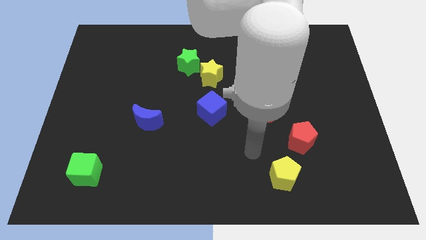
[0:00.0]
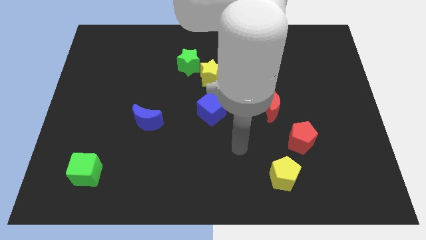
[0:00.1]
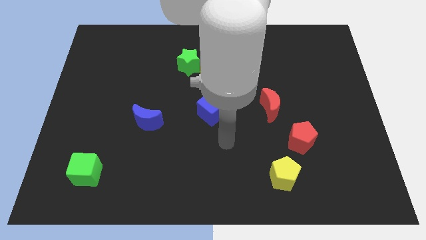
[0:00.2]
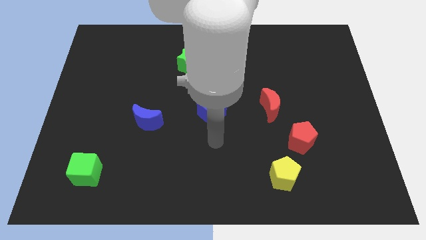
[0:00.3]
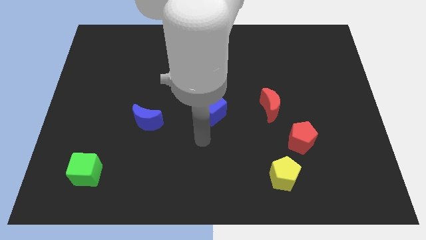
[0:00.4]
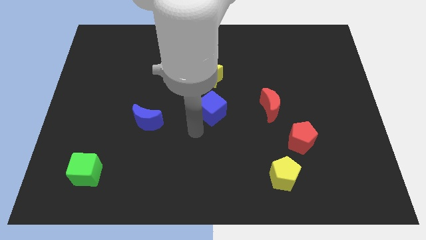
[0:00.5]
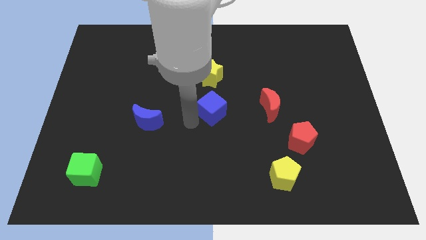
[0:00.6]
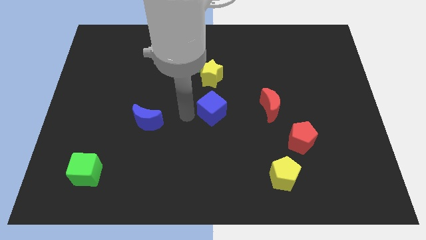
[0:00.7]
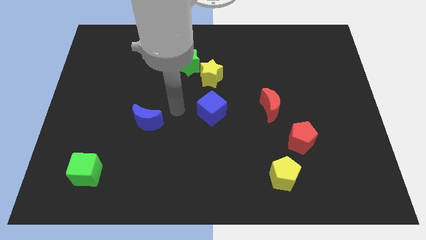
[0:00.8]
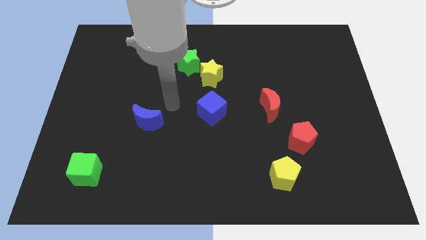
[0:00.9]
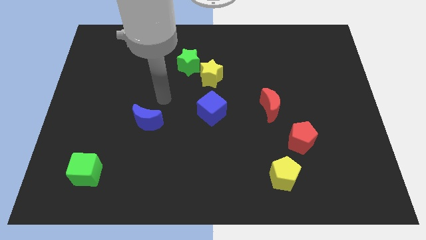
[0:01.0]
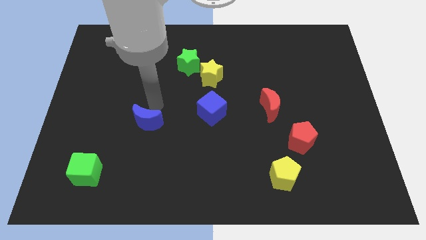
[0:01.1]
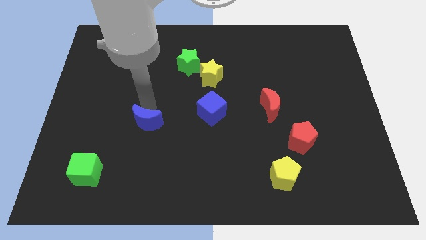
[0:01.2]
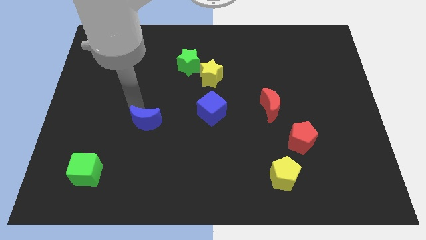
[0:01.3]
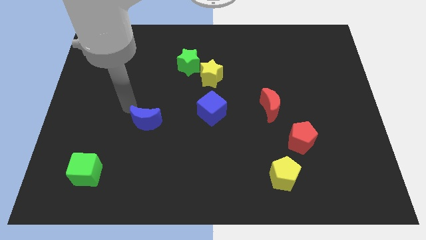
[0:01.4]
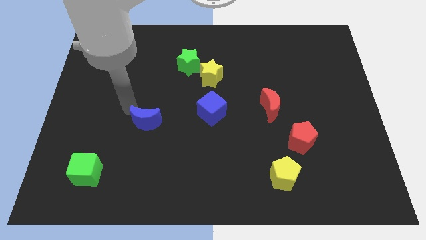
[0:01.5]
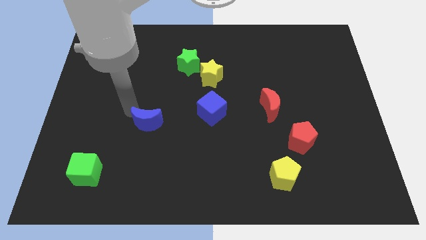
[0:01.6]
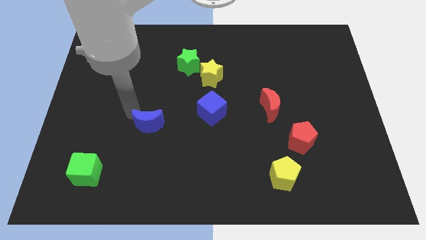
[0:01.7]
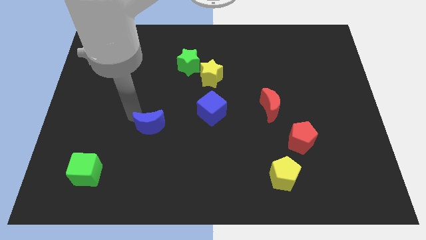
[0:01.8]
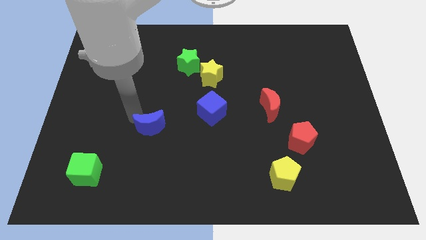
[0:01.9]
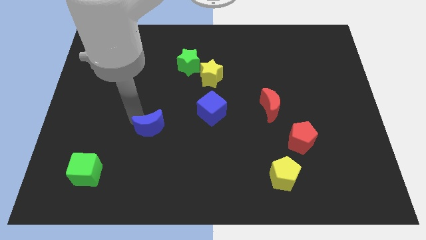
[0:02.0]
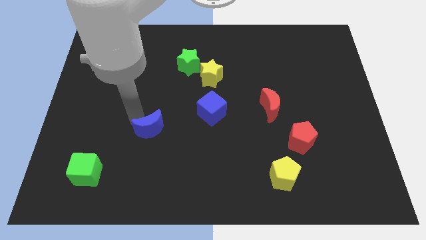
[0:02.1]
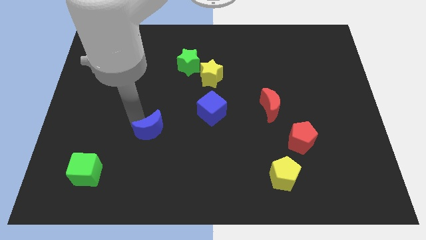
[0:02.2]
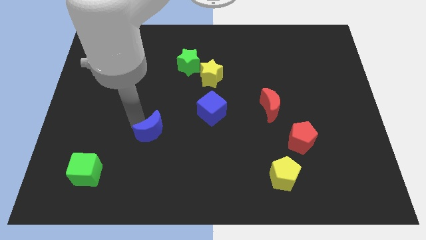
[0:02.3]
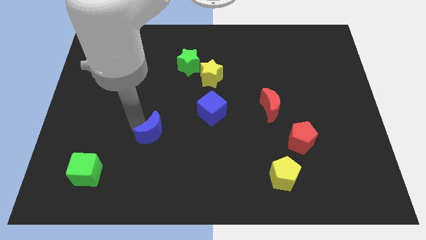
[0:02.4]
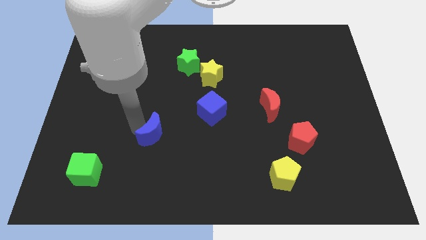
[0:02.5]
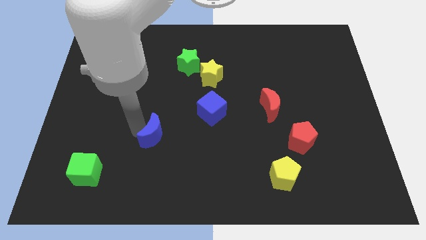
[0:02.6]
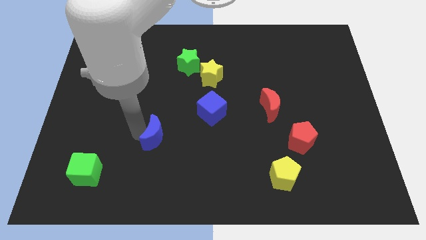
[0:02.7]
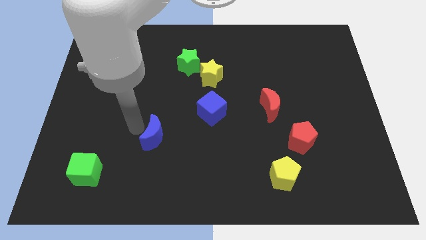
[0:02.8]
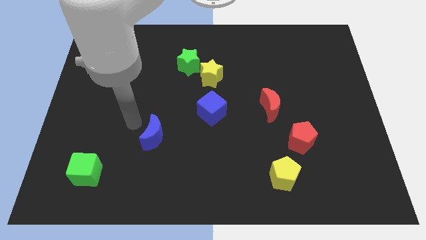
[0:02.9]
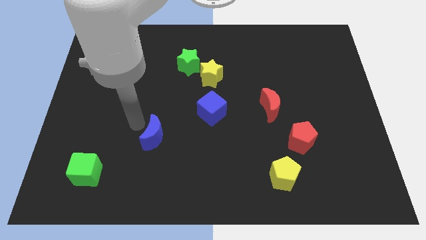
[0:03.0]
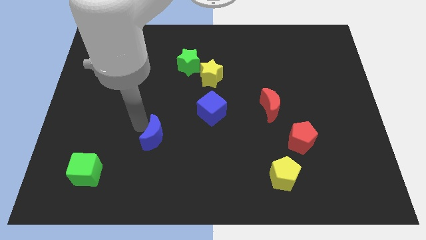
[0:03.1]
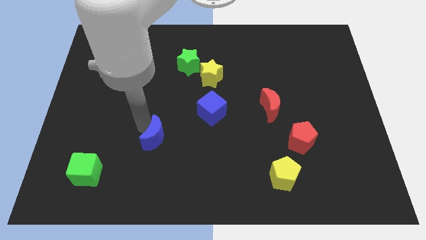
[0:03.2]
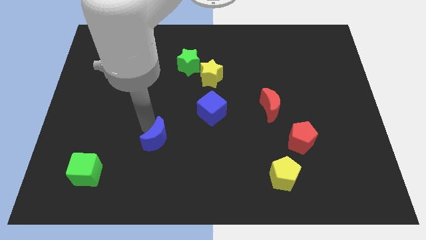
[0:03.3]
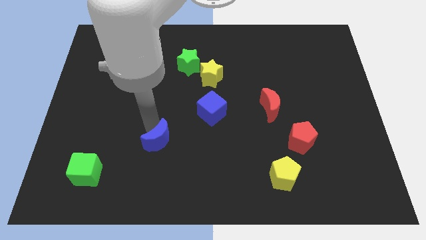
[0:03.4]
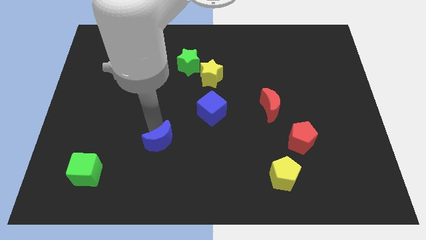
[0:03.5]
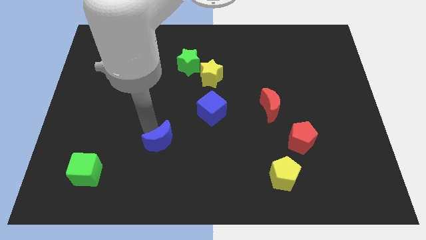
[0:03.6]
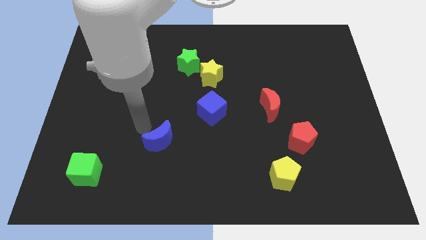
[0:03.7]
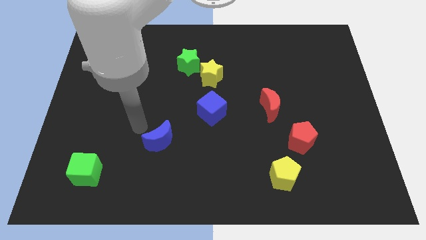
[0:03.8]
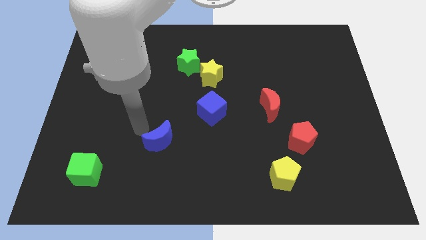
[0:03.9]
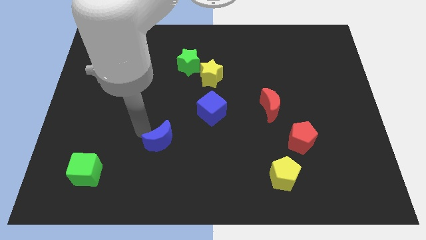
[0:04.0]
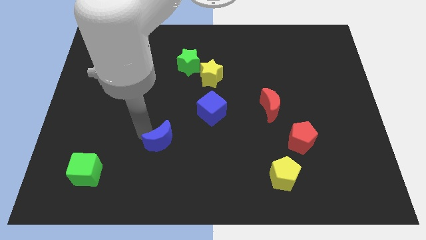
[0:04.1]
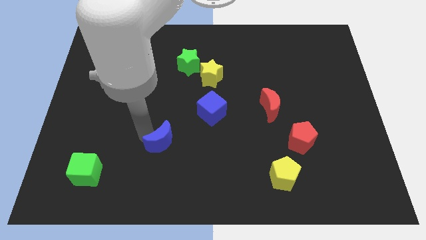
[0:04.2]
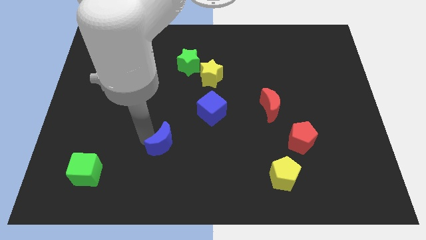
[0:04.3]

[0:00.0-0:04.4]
move the blue moon downwards and then right somewhat

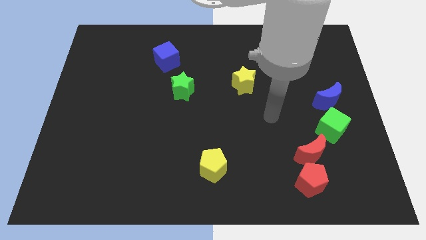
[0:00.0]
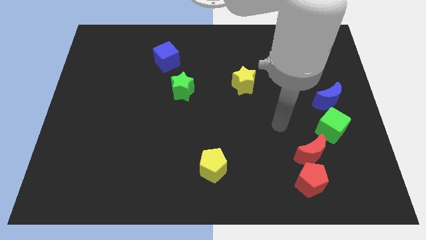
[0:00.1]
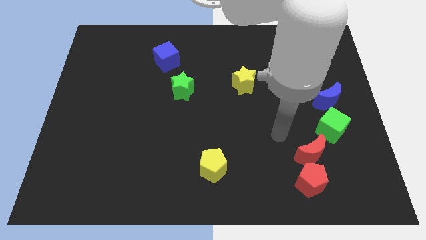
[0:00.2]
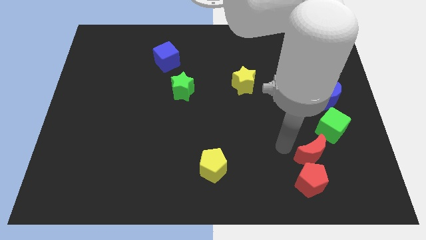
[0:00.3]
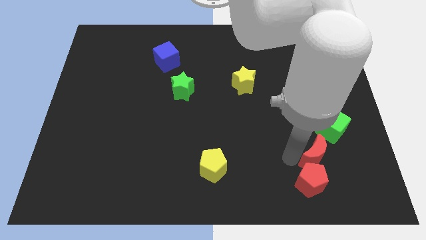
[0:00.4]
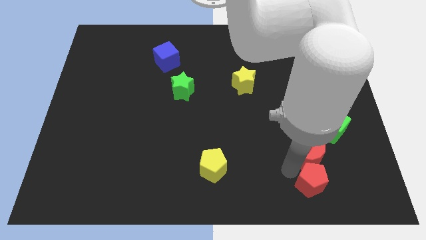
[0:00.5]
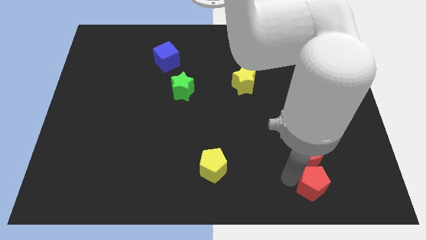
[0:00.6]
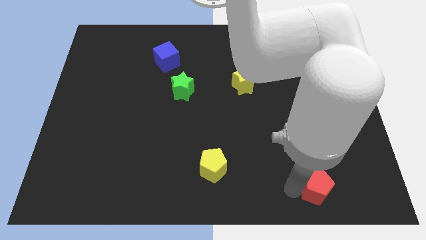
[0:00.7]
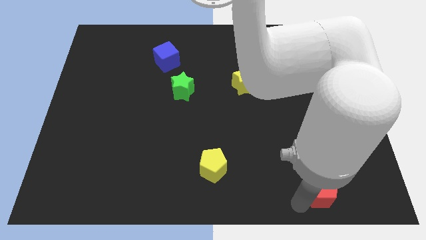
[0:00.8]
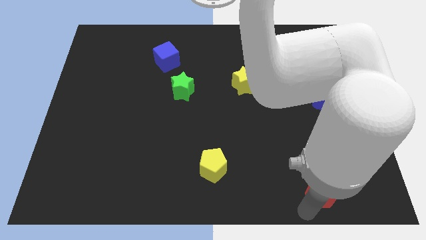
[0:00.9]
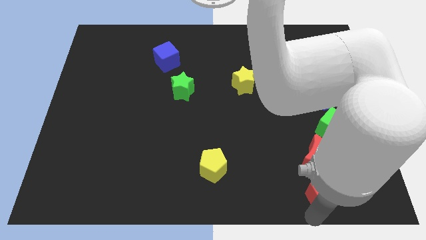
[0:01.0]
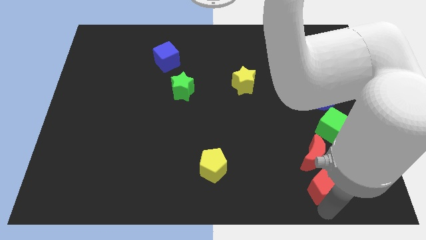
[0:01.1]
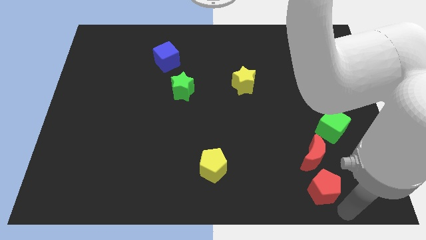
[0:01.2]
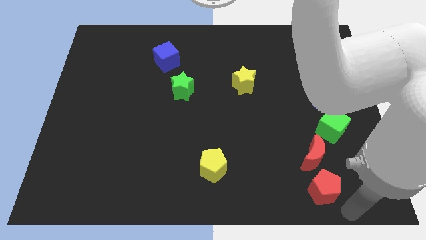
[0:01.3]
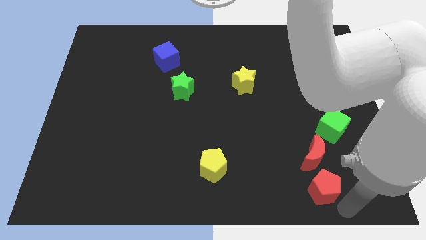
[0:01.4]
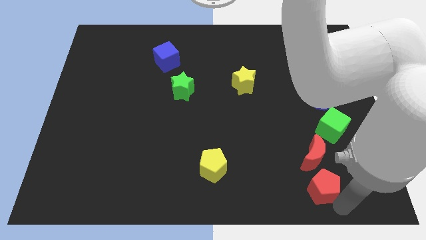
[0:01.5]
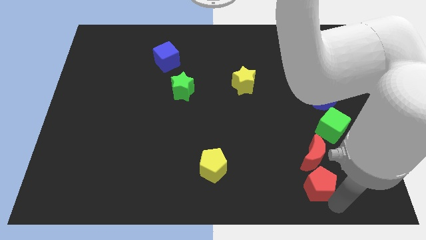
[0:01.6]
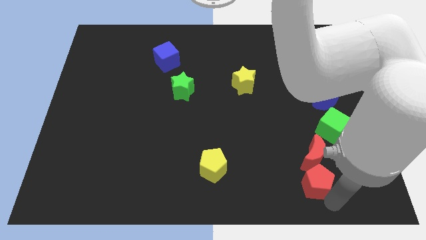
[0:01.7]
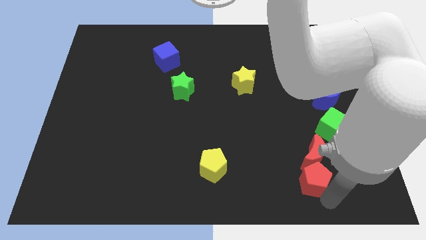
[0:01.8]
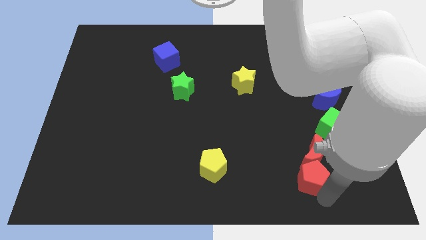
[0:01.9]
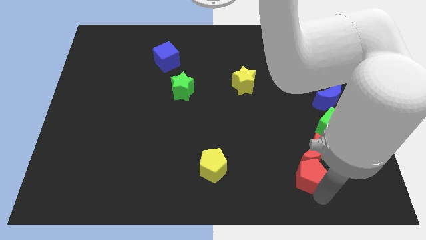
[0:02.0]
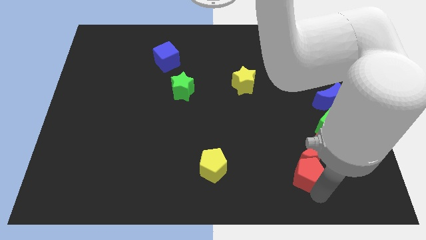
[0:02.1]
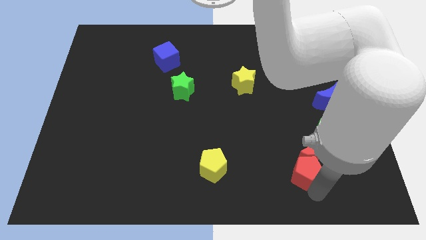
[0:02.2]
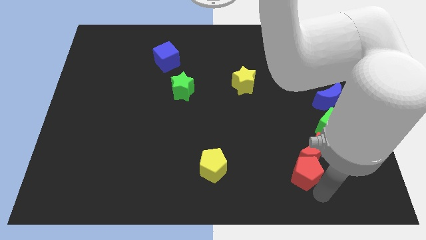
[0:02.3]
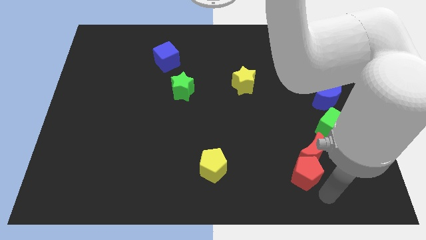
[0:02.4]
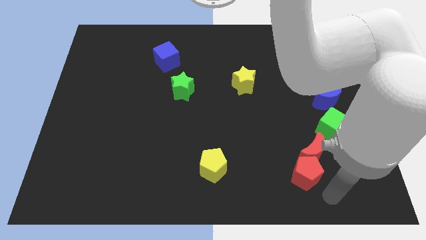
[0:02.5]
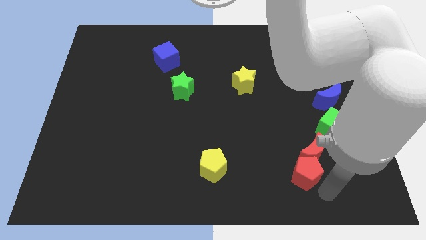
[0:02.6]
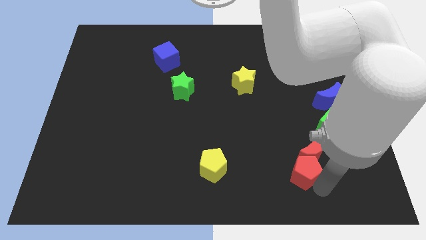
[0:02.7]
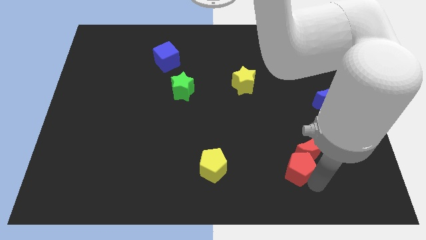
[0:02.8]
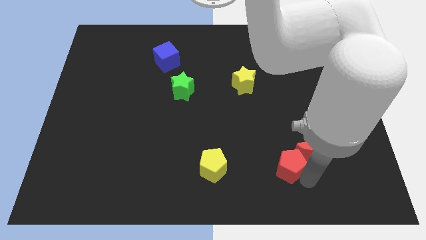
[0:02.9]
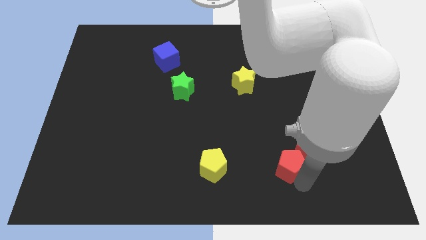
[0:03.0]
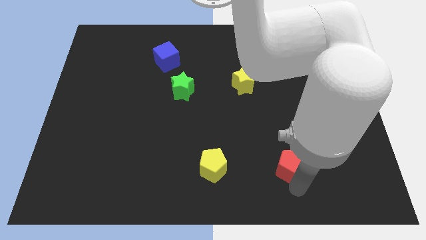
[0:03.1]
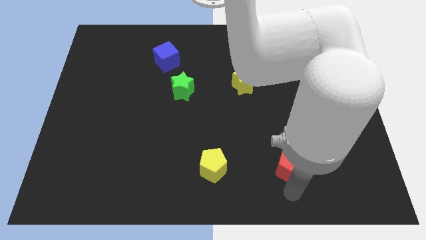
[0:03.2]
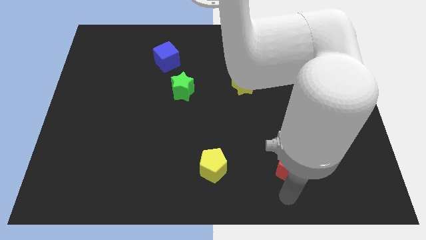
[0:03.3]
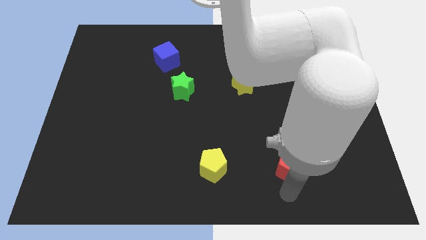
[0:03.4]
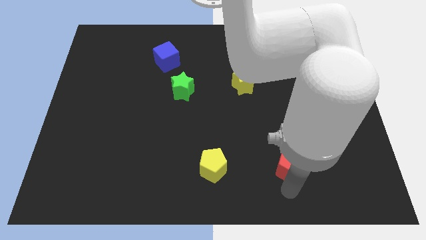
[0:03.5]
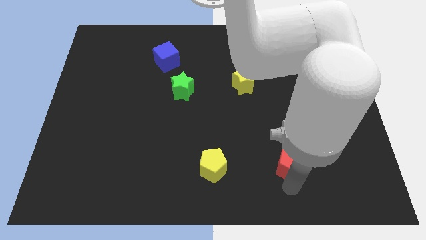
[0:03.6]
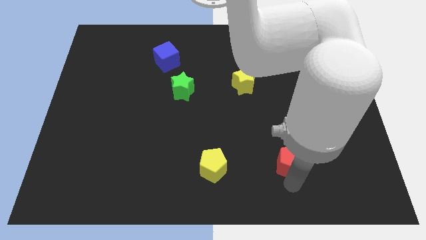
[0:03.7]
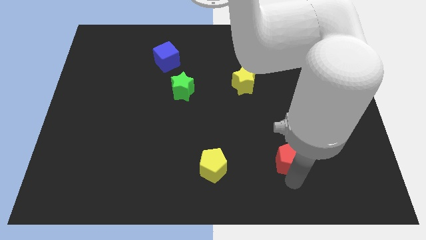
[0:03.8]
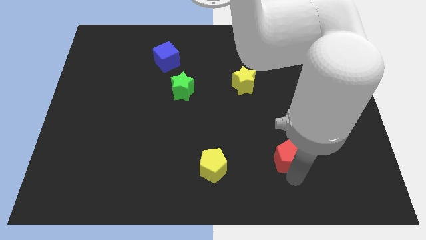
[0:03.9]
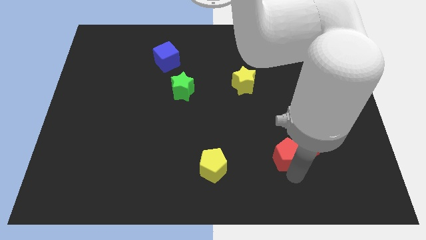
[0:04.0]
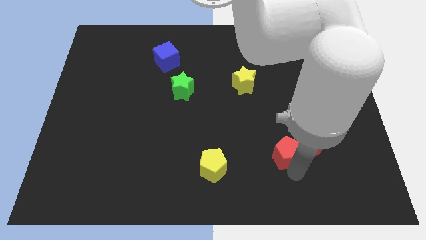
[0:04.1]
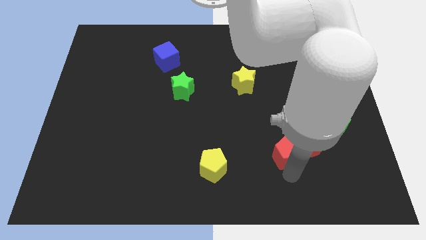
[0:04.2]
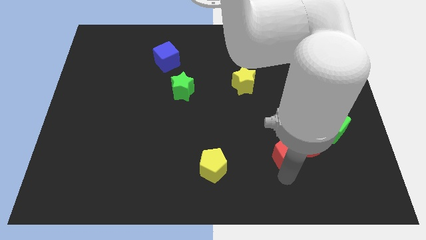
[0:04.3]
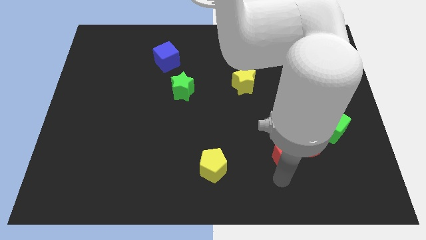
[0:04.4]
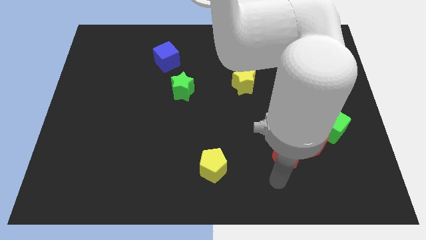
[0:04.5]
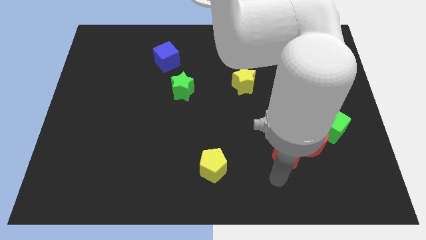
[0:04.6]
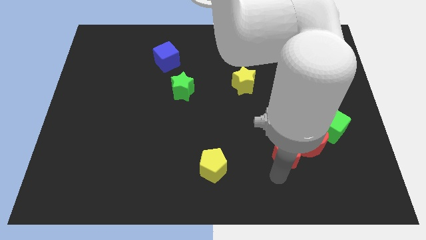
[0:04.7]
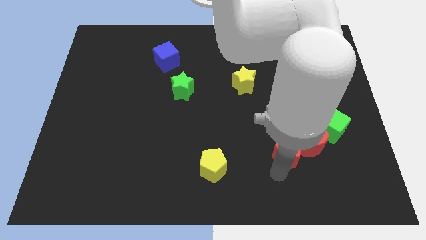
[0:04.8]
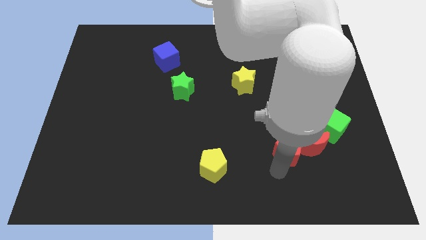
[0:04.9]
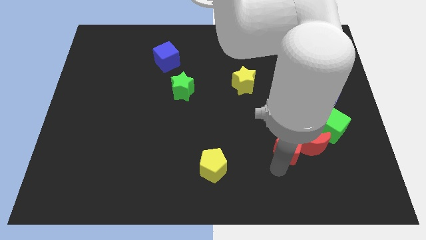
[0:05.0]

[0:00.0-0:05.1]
push the red pentagon a little bit up
